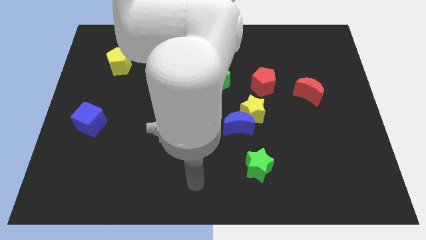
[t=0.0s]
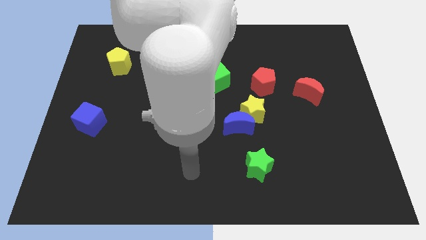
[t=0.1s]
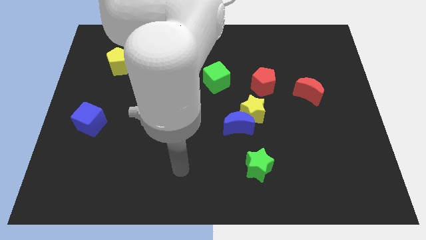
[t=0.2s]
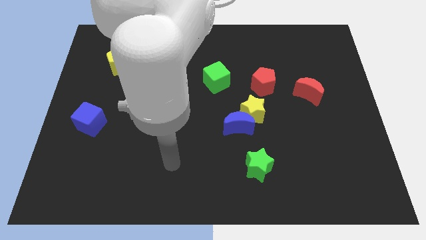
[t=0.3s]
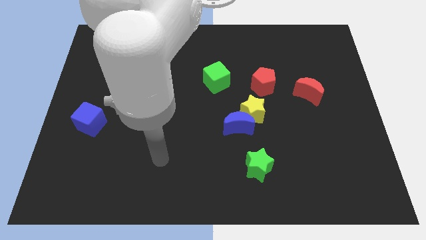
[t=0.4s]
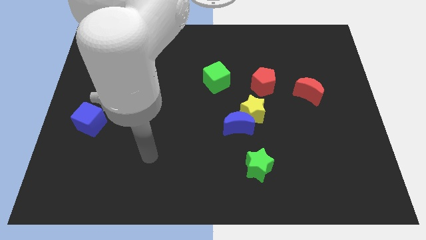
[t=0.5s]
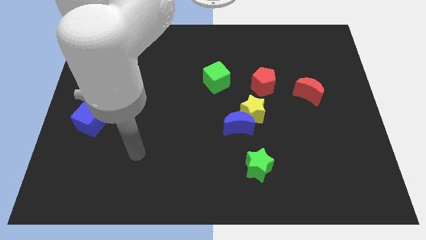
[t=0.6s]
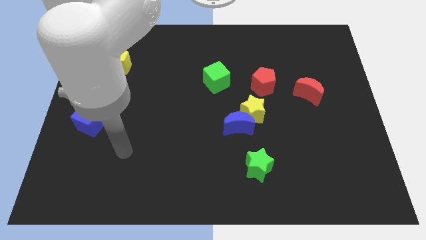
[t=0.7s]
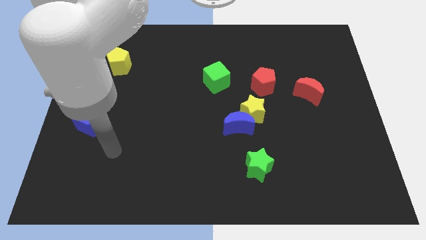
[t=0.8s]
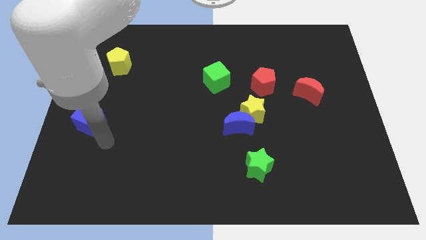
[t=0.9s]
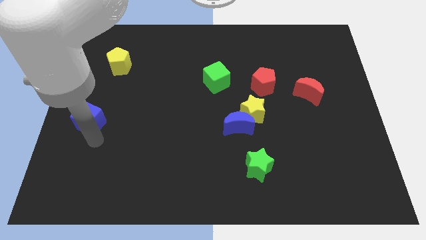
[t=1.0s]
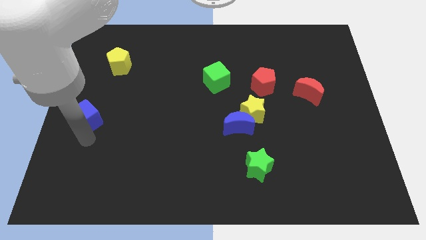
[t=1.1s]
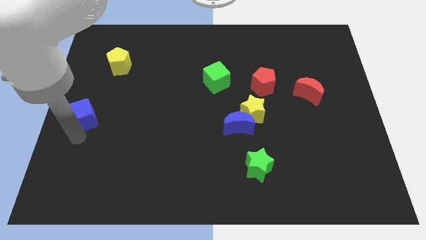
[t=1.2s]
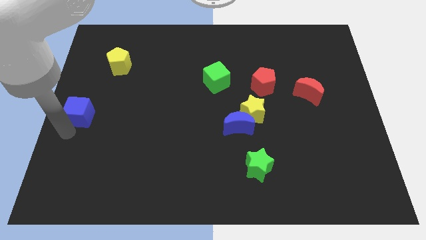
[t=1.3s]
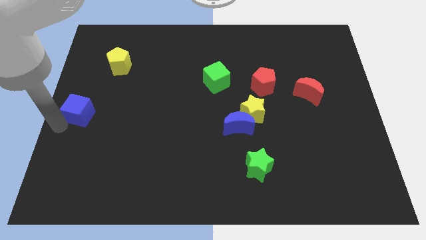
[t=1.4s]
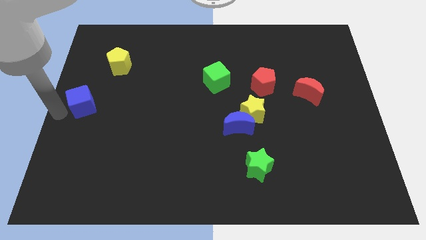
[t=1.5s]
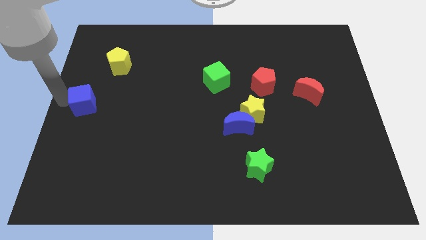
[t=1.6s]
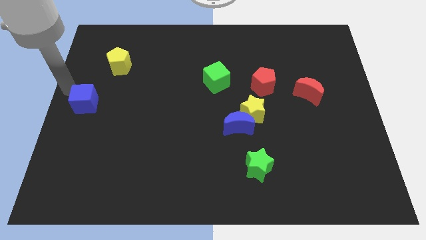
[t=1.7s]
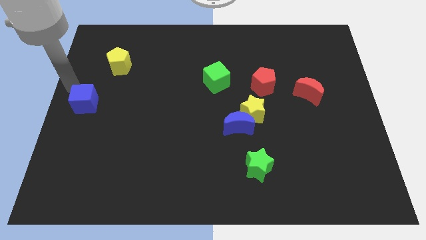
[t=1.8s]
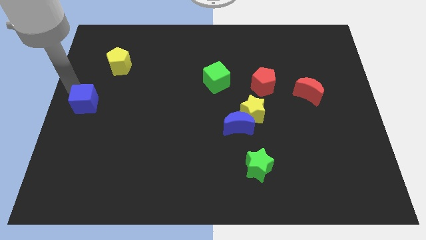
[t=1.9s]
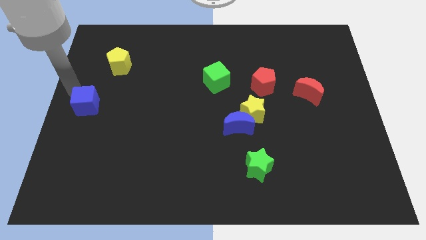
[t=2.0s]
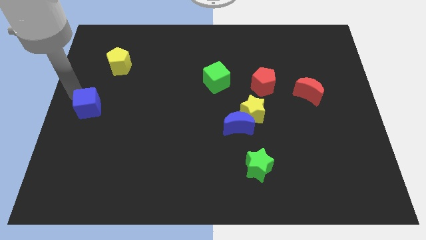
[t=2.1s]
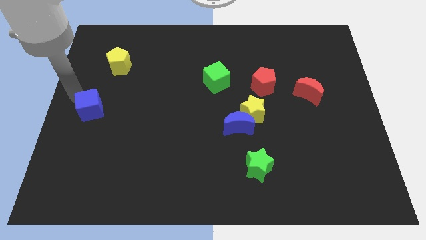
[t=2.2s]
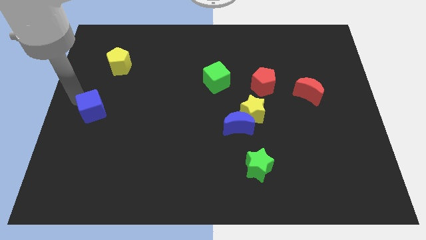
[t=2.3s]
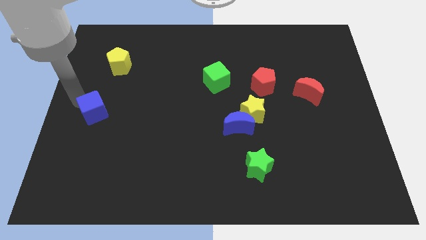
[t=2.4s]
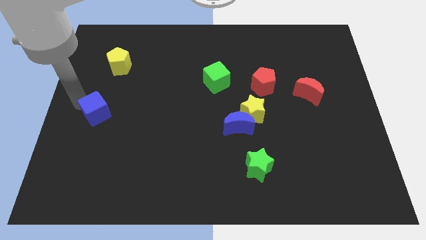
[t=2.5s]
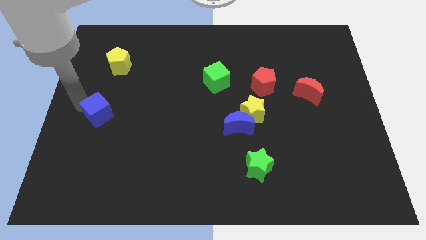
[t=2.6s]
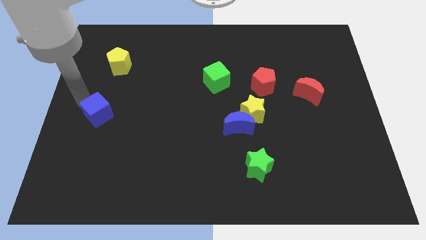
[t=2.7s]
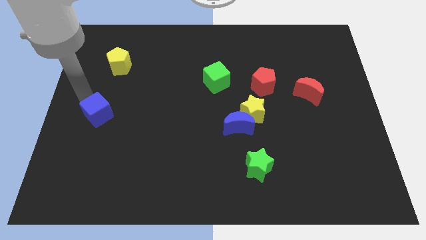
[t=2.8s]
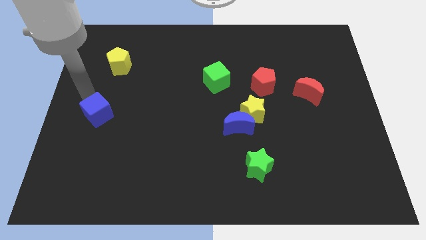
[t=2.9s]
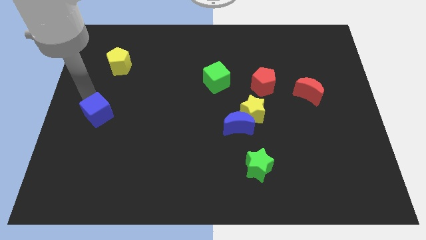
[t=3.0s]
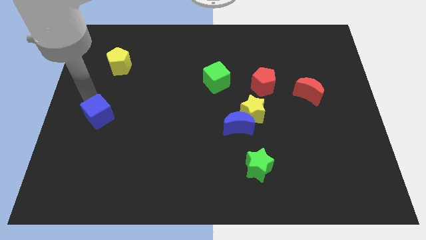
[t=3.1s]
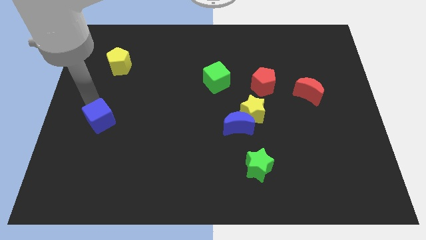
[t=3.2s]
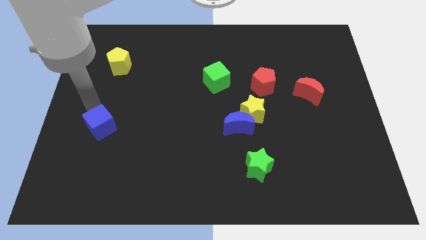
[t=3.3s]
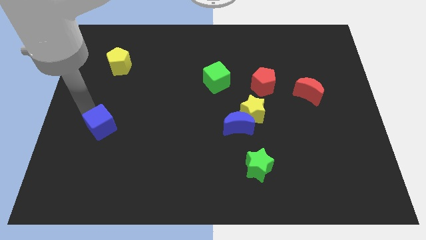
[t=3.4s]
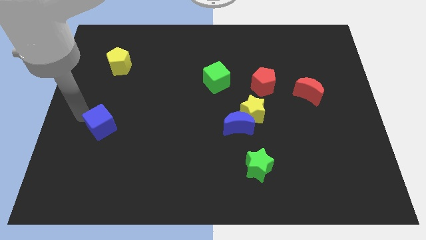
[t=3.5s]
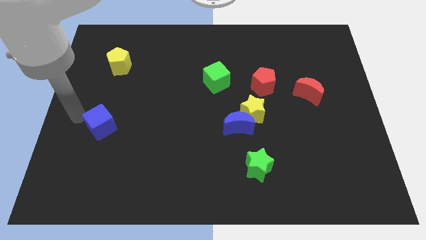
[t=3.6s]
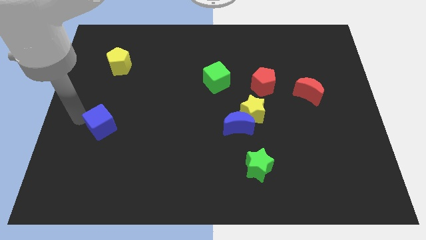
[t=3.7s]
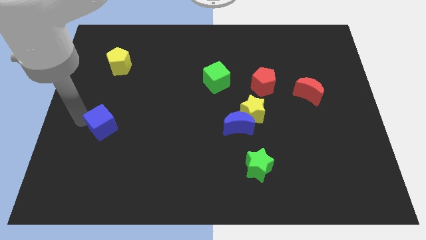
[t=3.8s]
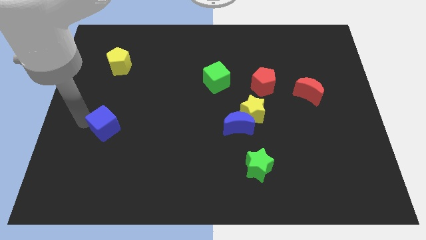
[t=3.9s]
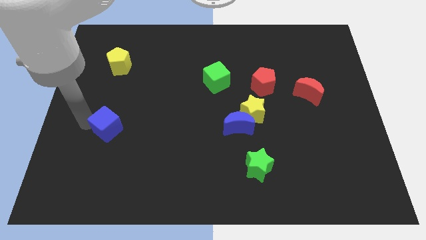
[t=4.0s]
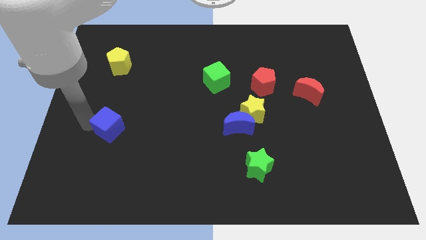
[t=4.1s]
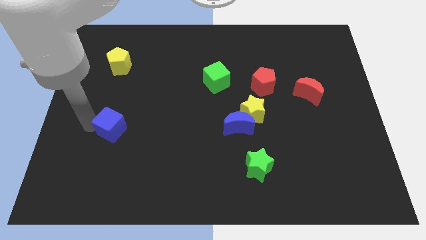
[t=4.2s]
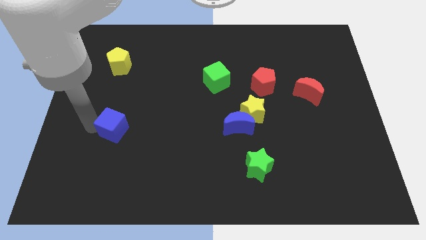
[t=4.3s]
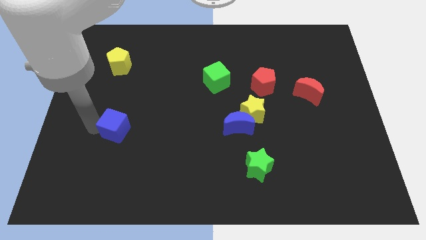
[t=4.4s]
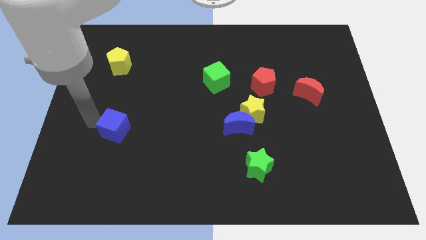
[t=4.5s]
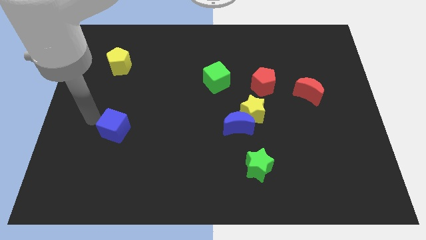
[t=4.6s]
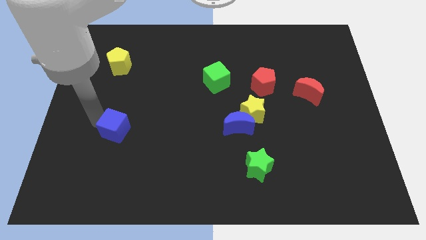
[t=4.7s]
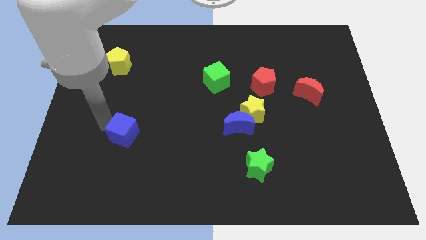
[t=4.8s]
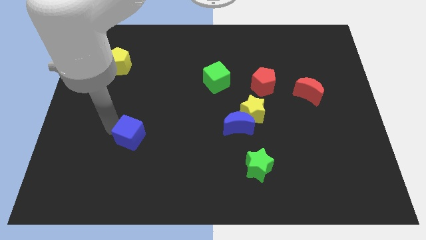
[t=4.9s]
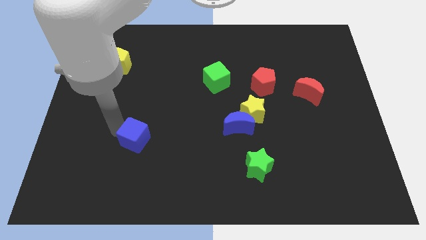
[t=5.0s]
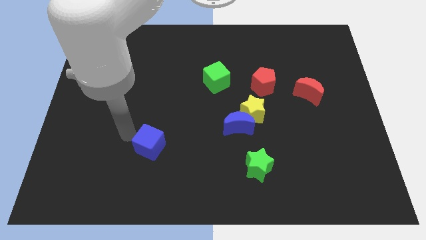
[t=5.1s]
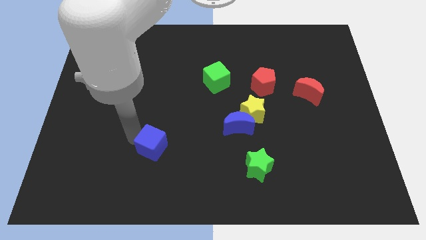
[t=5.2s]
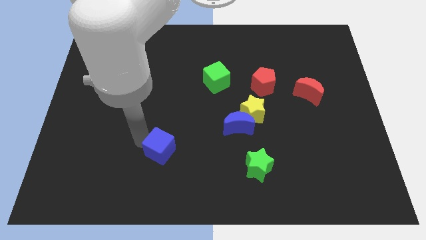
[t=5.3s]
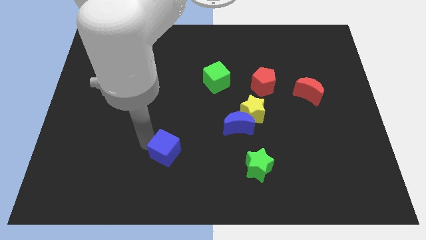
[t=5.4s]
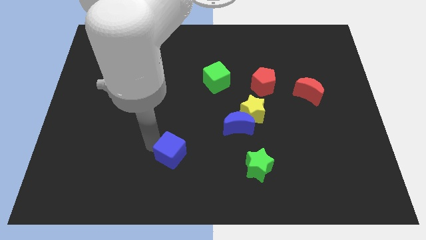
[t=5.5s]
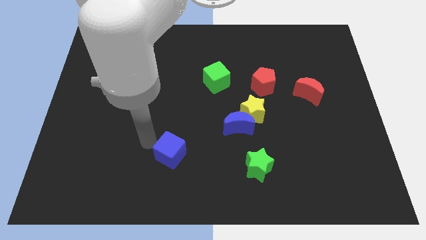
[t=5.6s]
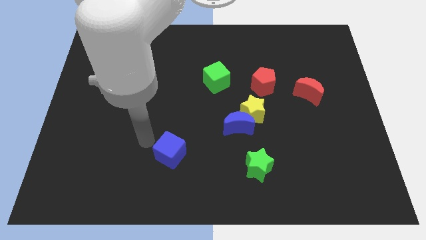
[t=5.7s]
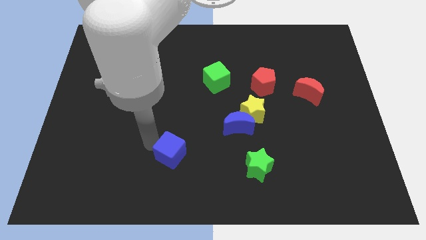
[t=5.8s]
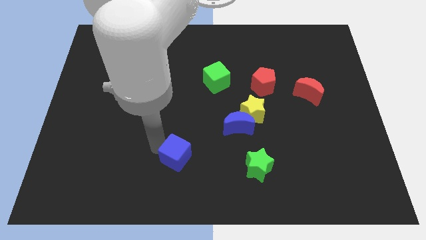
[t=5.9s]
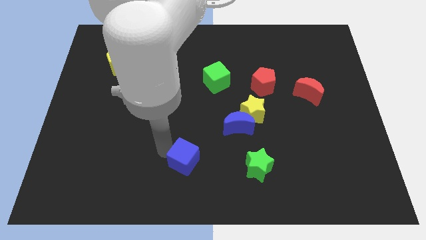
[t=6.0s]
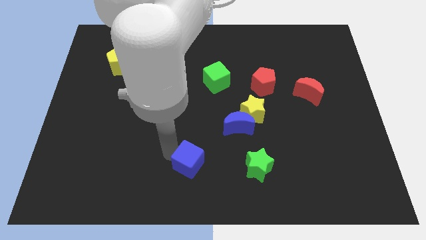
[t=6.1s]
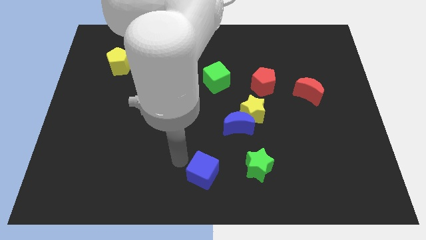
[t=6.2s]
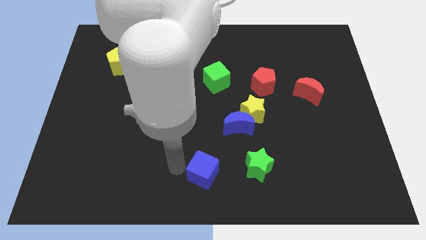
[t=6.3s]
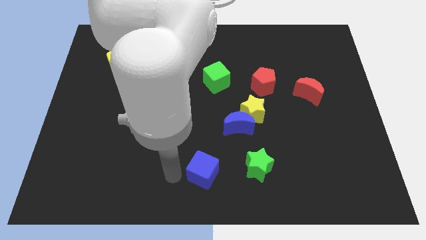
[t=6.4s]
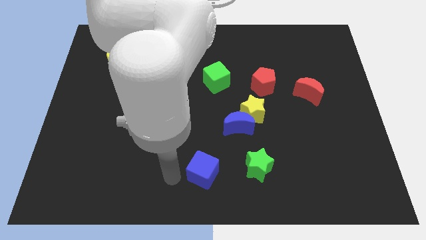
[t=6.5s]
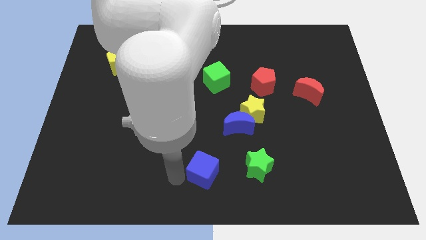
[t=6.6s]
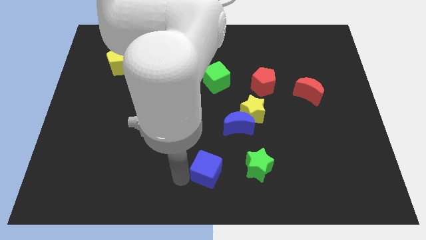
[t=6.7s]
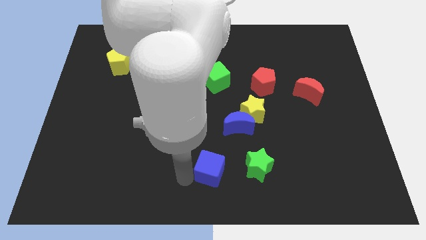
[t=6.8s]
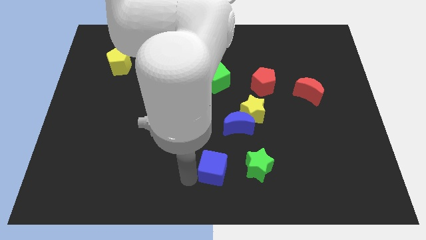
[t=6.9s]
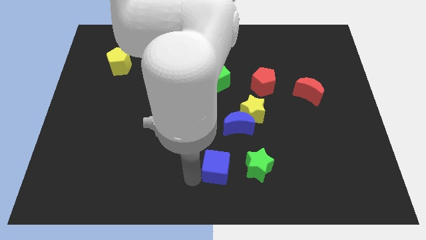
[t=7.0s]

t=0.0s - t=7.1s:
move the blue cube to the bottom side of the blue moon
